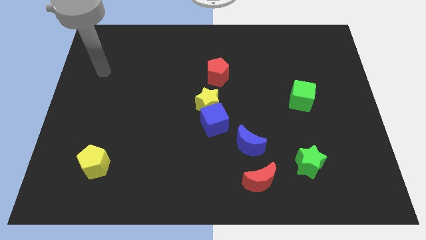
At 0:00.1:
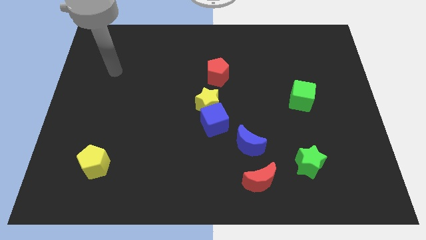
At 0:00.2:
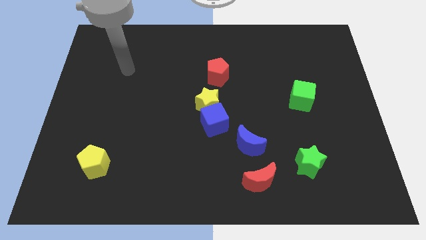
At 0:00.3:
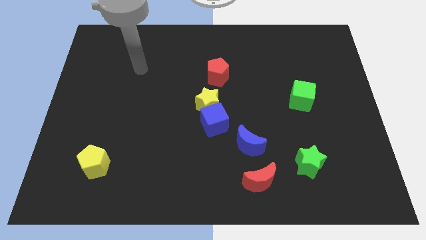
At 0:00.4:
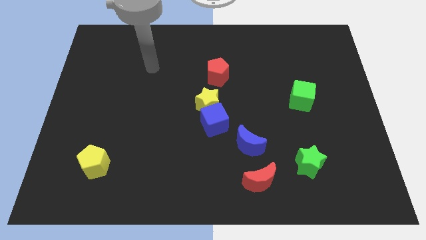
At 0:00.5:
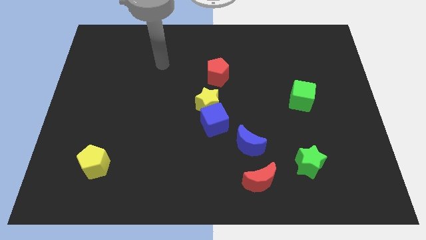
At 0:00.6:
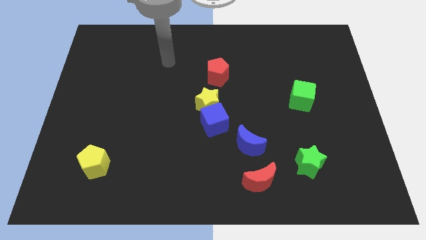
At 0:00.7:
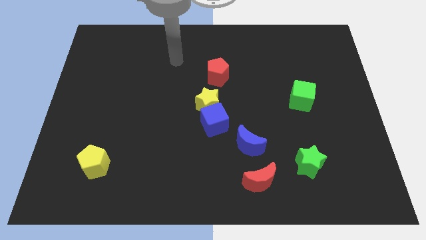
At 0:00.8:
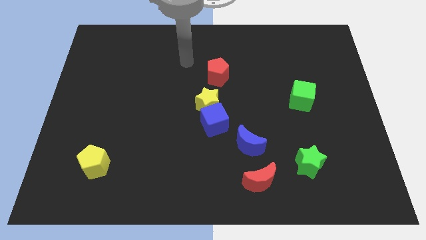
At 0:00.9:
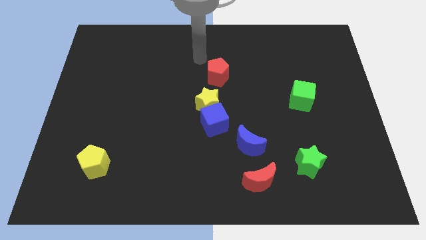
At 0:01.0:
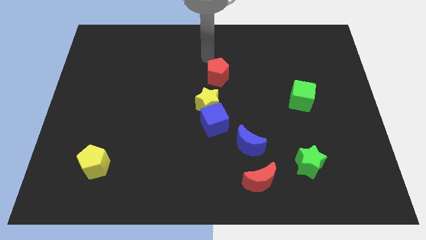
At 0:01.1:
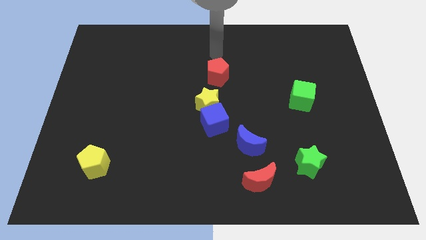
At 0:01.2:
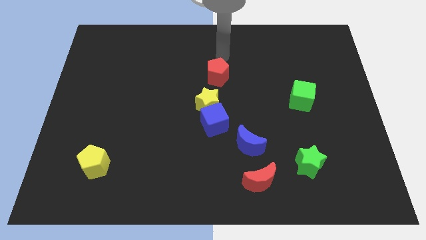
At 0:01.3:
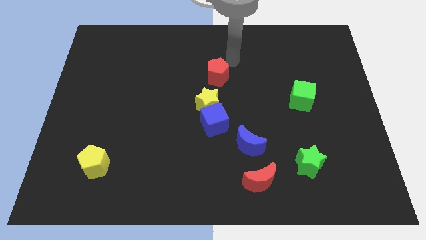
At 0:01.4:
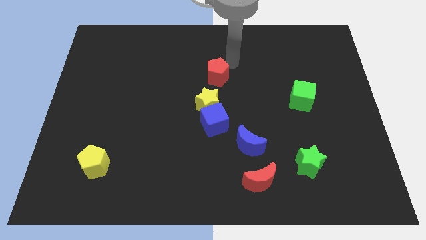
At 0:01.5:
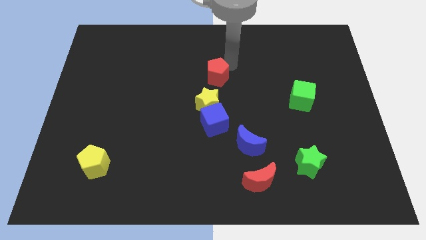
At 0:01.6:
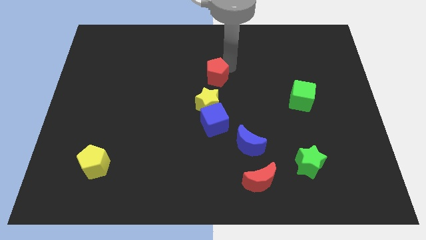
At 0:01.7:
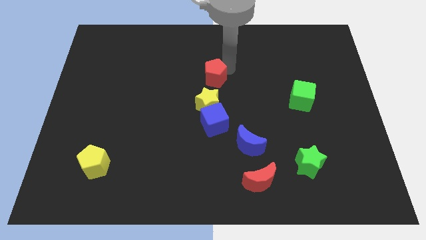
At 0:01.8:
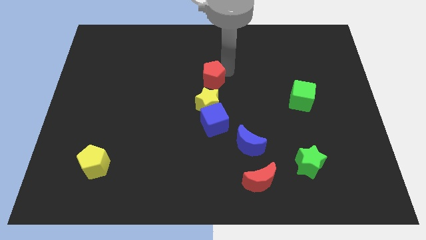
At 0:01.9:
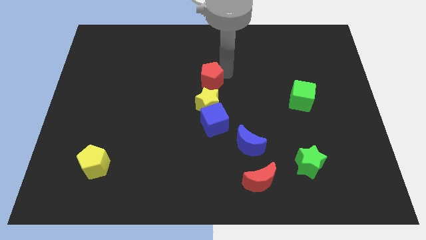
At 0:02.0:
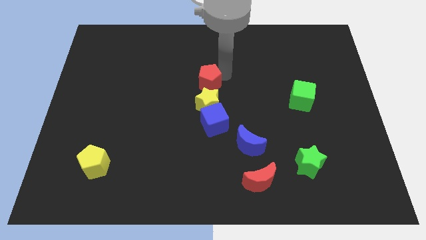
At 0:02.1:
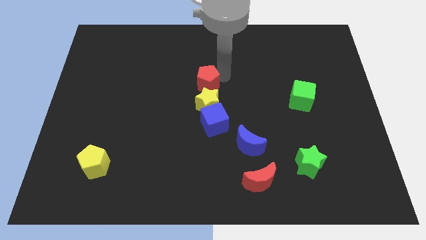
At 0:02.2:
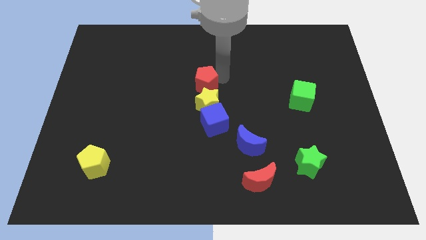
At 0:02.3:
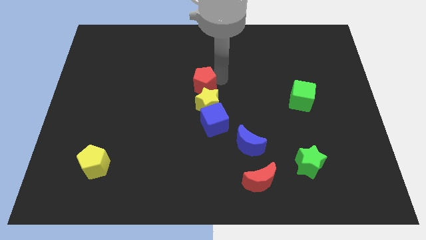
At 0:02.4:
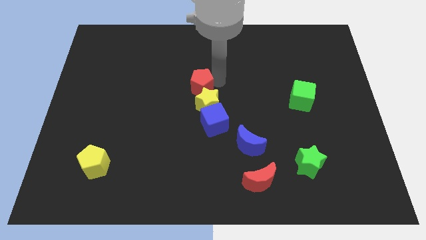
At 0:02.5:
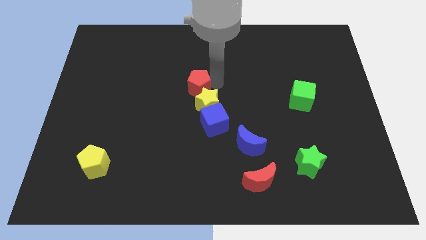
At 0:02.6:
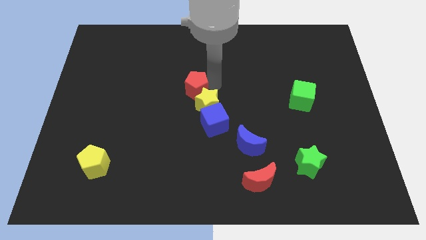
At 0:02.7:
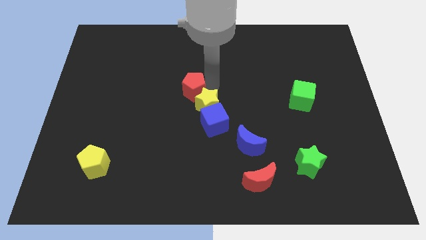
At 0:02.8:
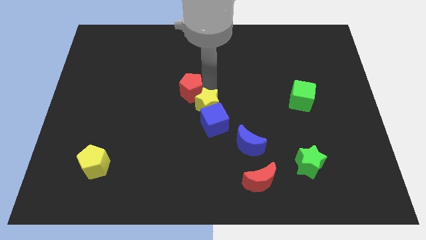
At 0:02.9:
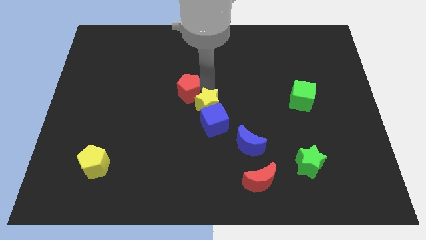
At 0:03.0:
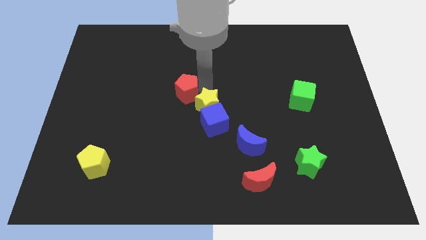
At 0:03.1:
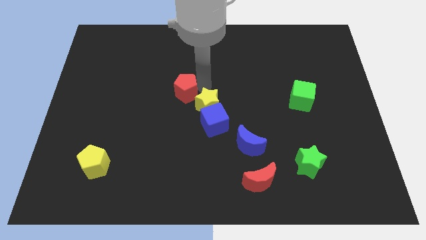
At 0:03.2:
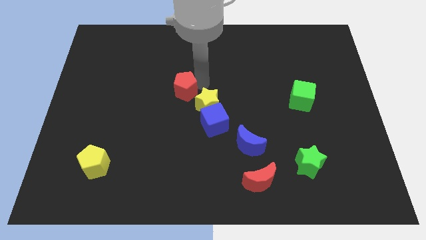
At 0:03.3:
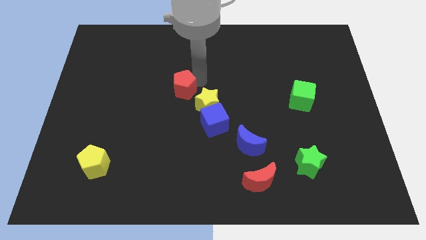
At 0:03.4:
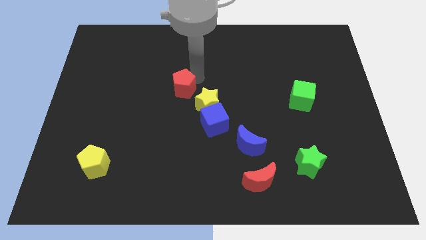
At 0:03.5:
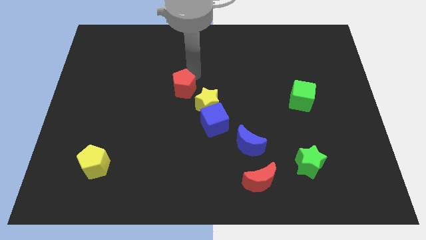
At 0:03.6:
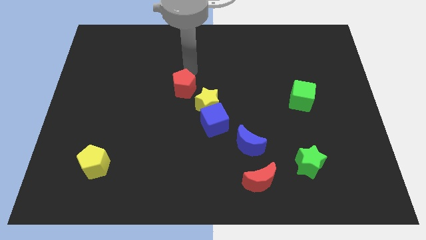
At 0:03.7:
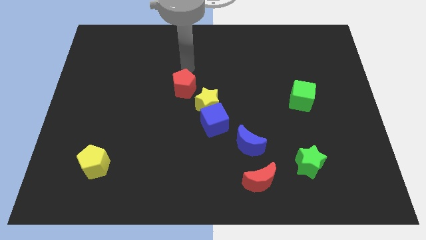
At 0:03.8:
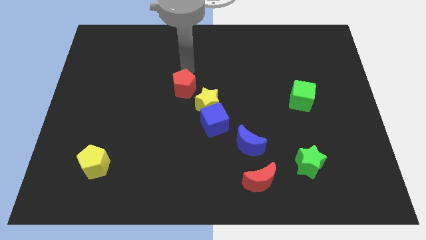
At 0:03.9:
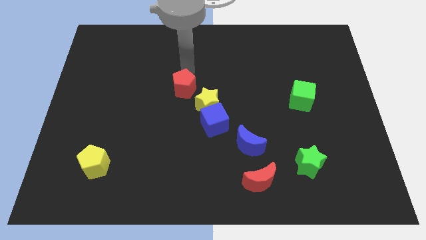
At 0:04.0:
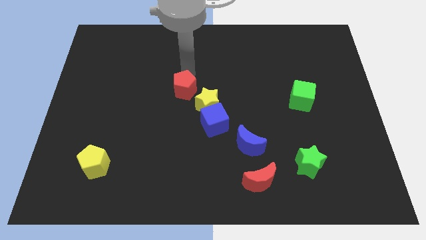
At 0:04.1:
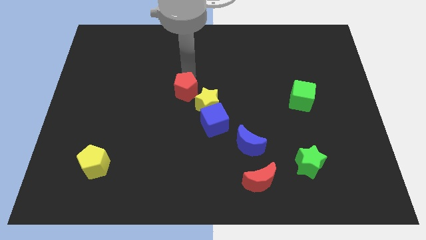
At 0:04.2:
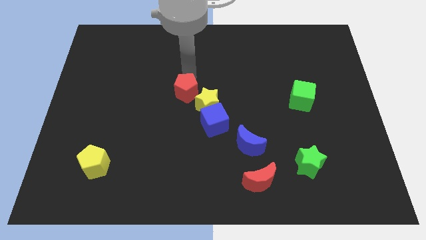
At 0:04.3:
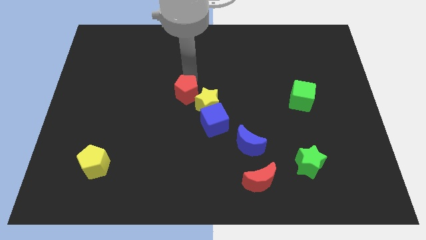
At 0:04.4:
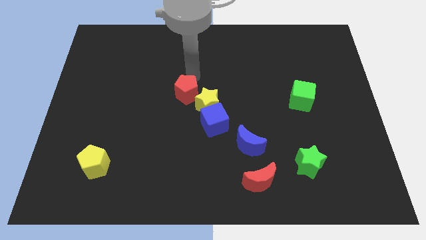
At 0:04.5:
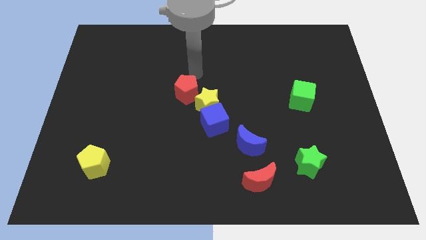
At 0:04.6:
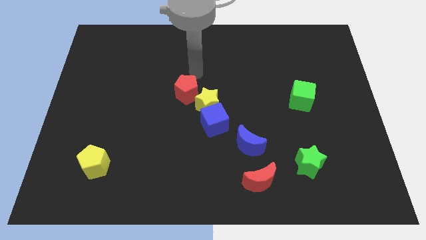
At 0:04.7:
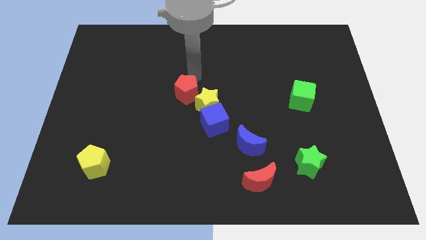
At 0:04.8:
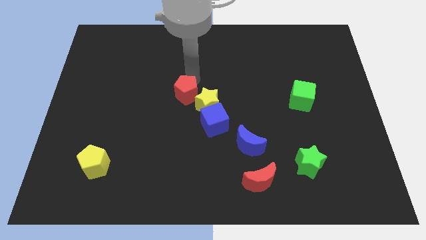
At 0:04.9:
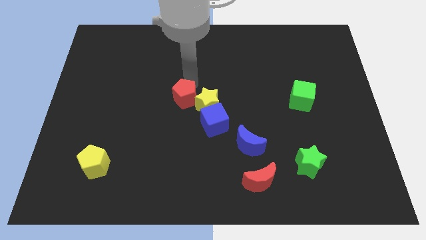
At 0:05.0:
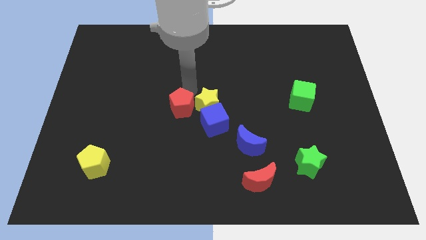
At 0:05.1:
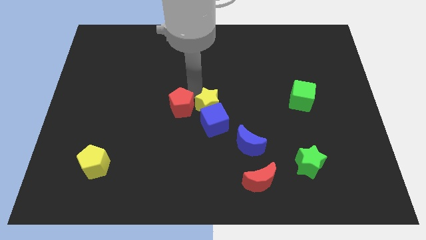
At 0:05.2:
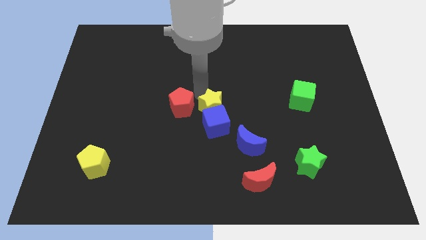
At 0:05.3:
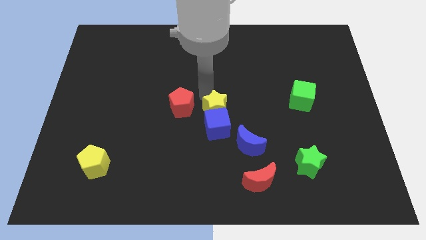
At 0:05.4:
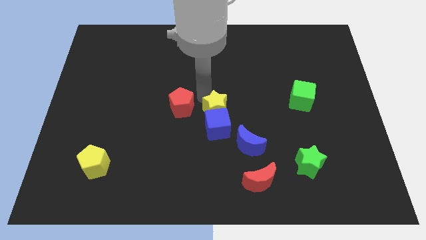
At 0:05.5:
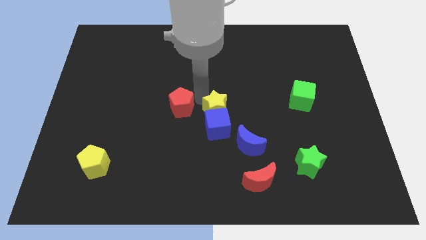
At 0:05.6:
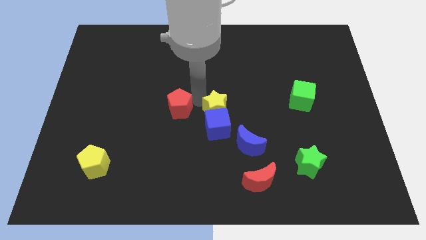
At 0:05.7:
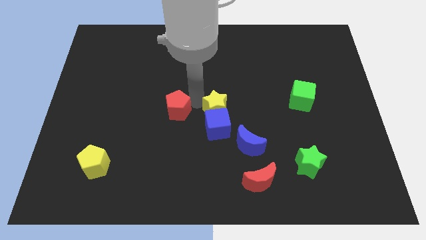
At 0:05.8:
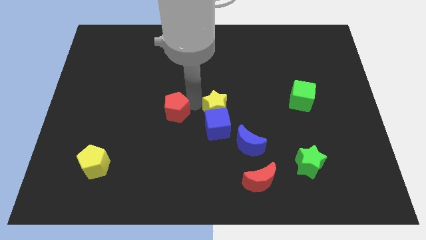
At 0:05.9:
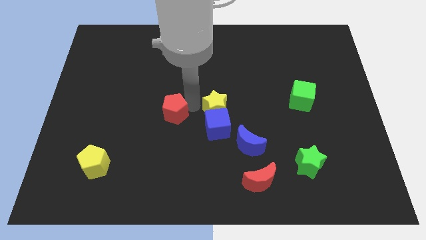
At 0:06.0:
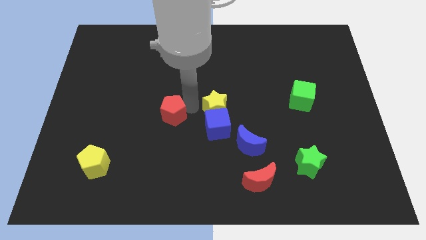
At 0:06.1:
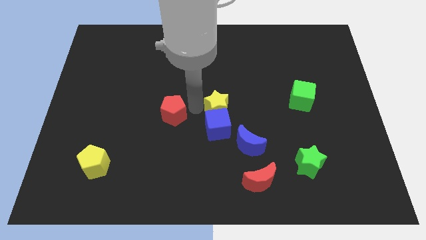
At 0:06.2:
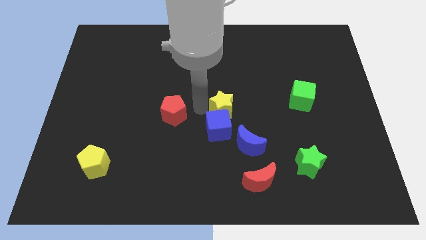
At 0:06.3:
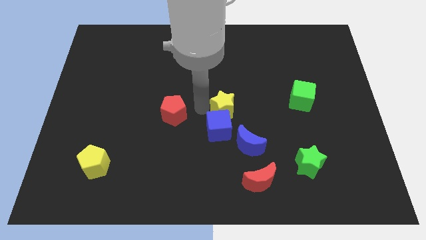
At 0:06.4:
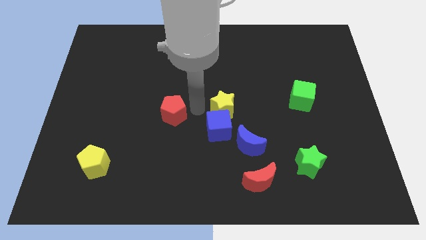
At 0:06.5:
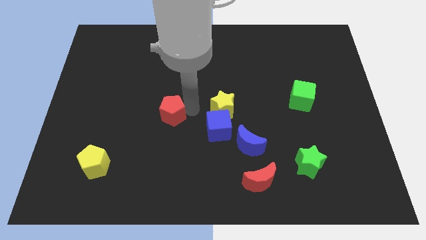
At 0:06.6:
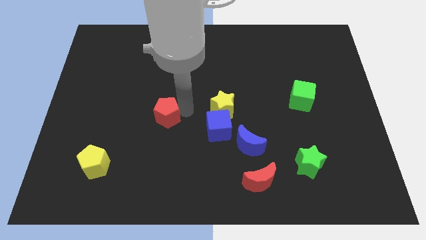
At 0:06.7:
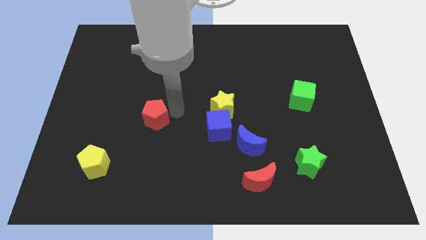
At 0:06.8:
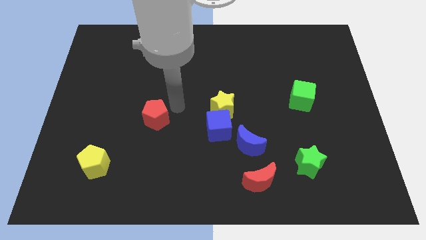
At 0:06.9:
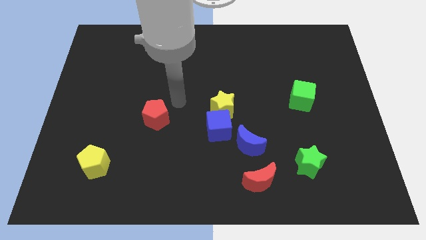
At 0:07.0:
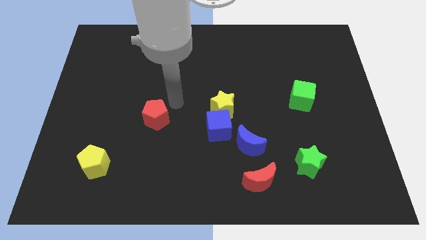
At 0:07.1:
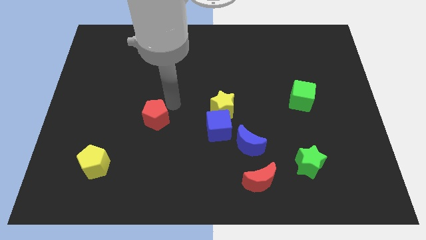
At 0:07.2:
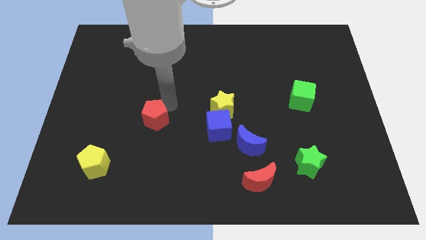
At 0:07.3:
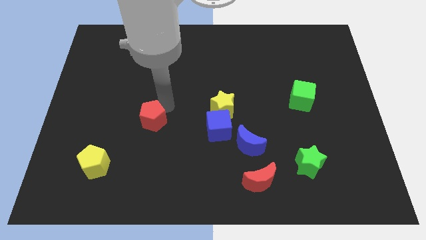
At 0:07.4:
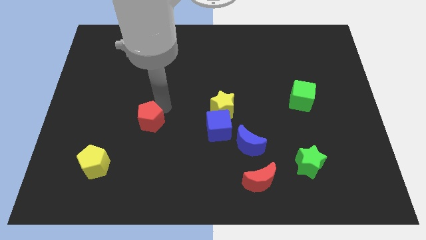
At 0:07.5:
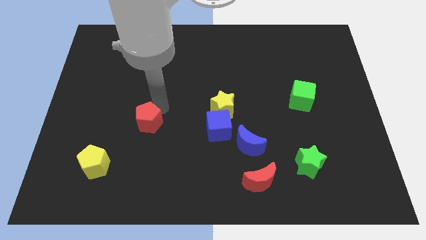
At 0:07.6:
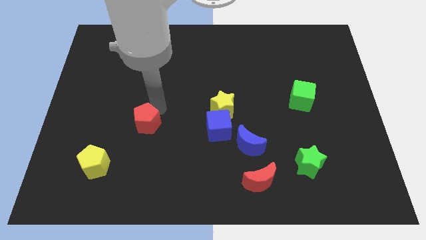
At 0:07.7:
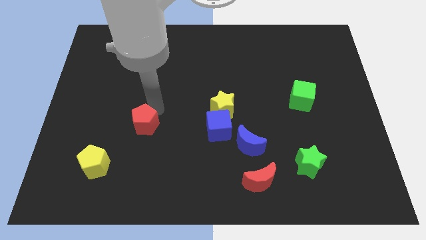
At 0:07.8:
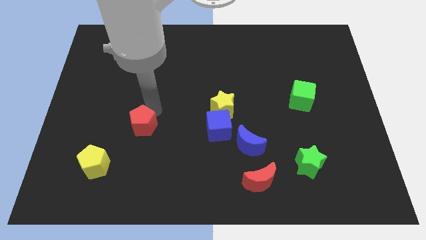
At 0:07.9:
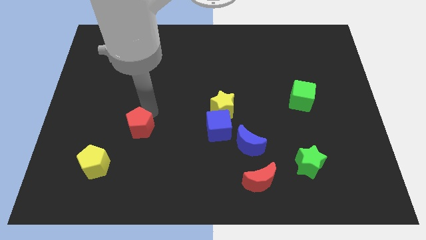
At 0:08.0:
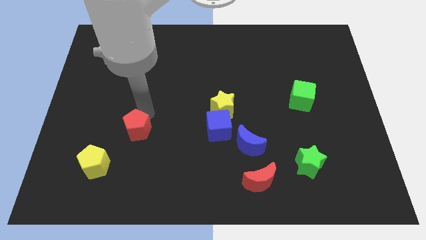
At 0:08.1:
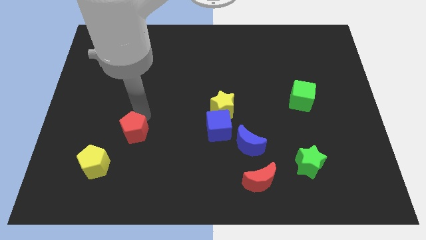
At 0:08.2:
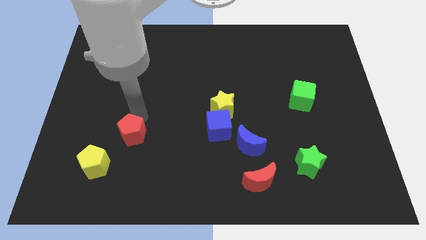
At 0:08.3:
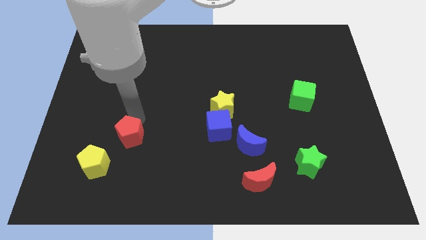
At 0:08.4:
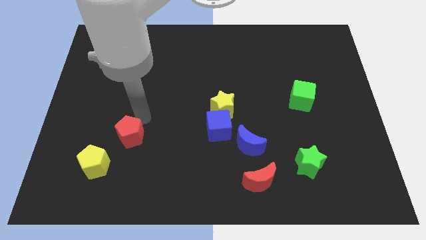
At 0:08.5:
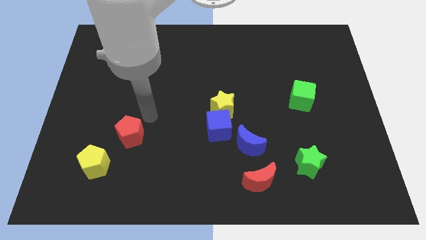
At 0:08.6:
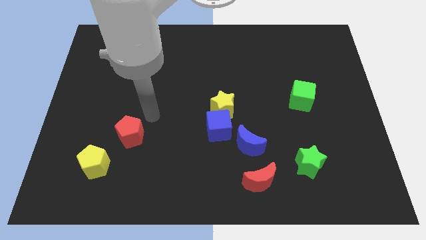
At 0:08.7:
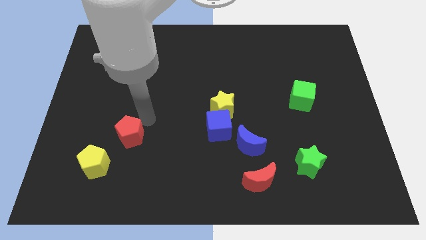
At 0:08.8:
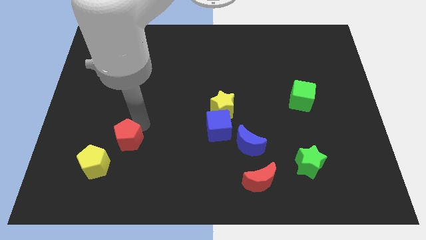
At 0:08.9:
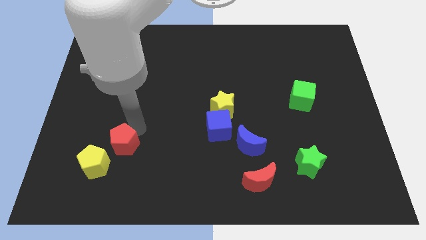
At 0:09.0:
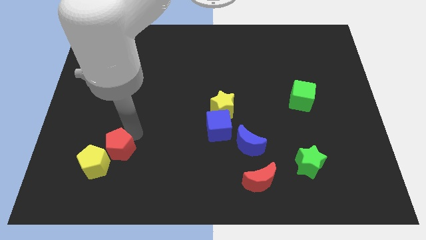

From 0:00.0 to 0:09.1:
move the red pentagon next to the yellow pentagon
